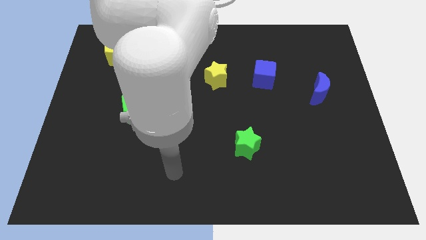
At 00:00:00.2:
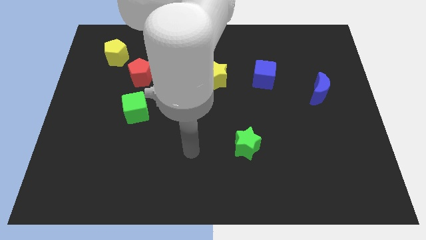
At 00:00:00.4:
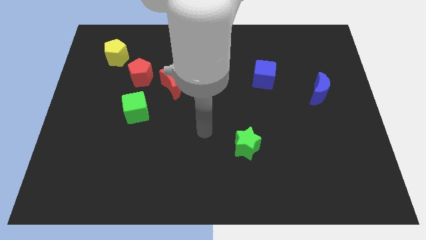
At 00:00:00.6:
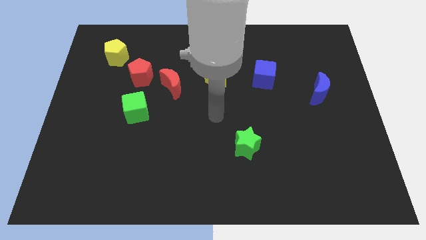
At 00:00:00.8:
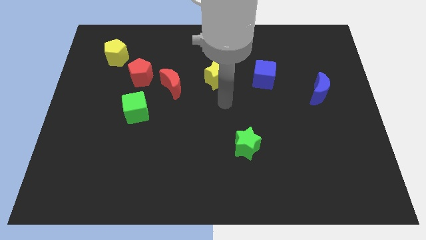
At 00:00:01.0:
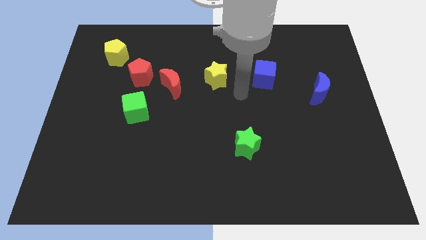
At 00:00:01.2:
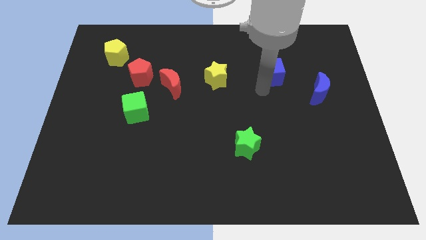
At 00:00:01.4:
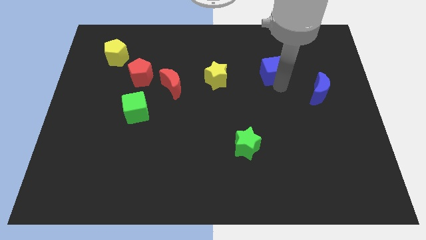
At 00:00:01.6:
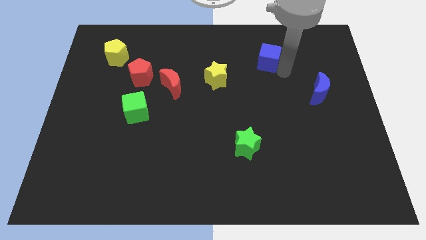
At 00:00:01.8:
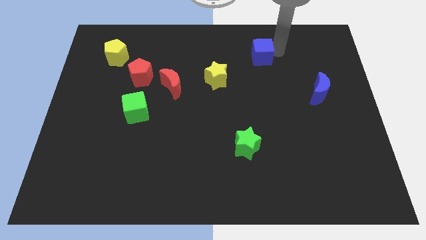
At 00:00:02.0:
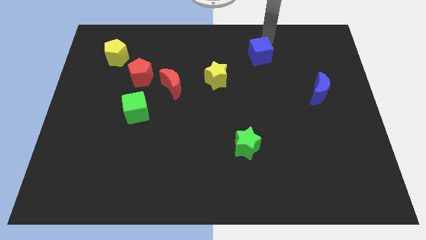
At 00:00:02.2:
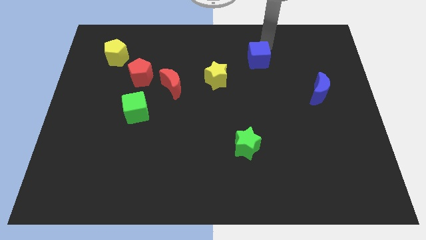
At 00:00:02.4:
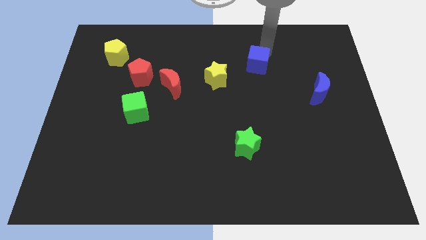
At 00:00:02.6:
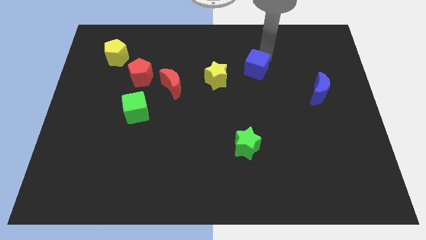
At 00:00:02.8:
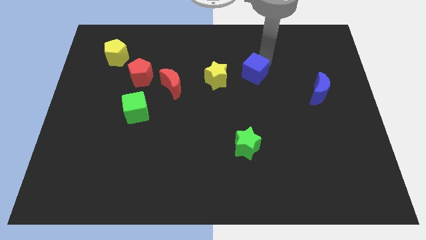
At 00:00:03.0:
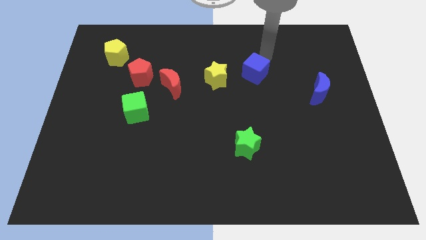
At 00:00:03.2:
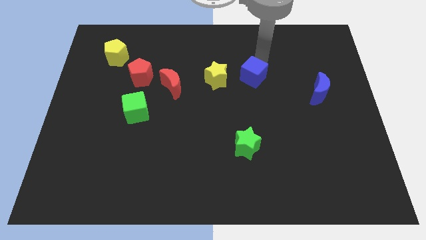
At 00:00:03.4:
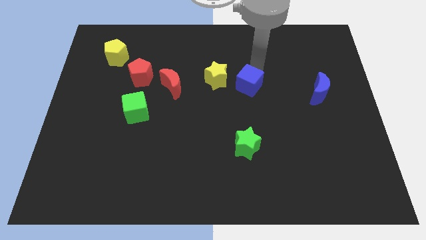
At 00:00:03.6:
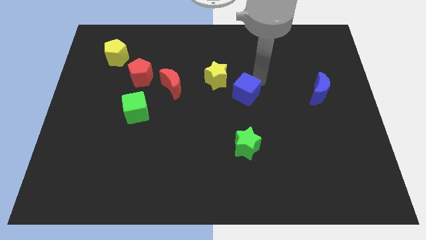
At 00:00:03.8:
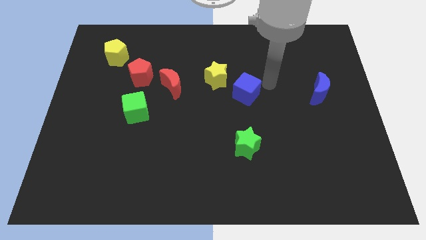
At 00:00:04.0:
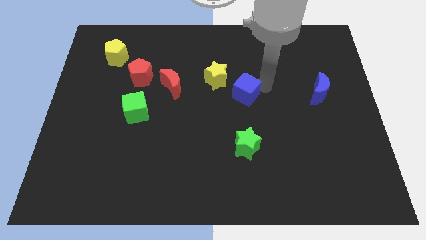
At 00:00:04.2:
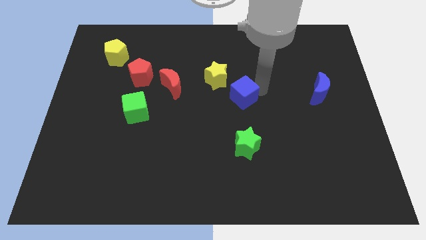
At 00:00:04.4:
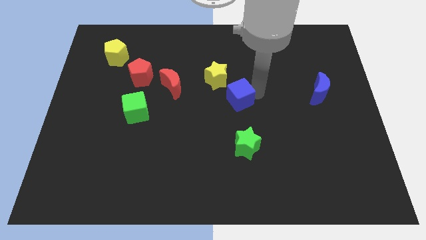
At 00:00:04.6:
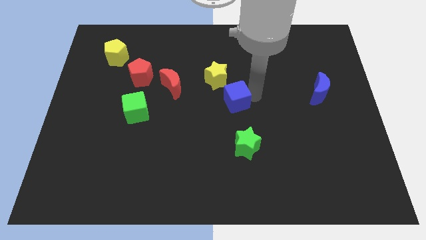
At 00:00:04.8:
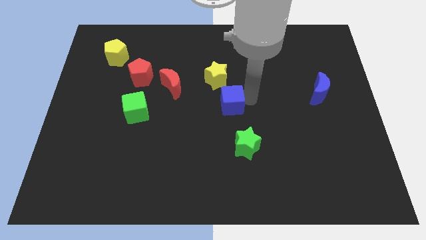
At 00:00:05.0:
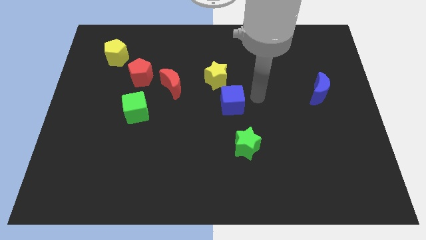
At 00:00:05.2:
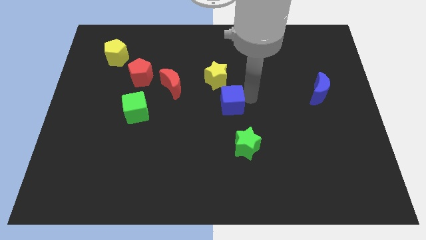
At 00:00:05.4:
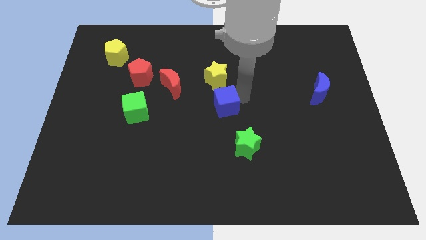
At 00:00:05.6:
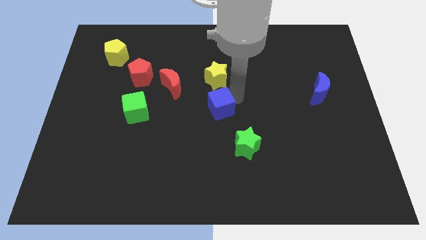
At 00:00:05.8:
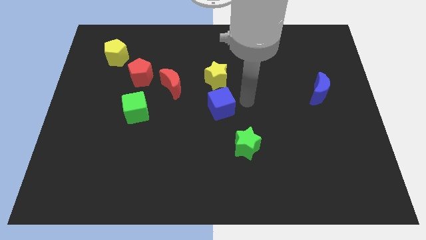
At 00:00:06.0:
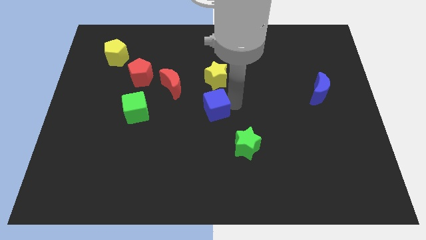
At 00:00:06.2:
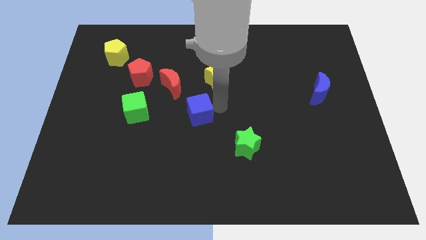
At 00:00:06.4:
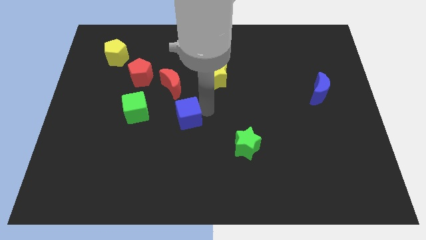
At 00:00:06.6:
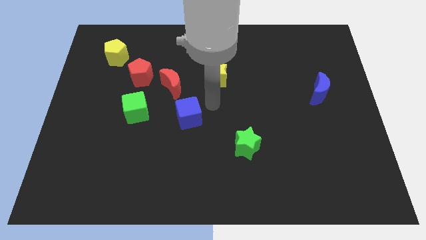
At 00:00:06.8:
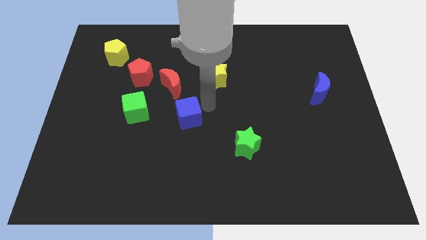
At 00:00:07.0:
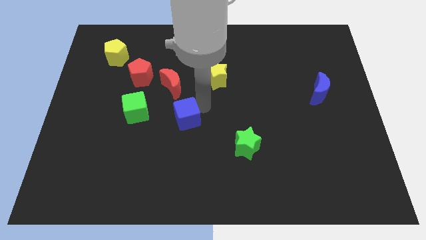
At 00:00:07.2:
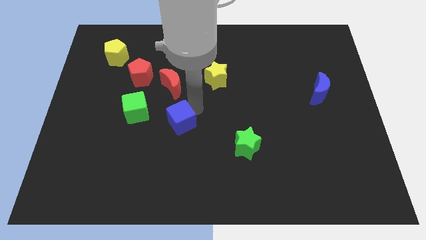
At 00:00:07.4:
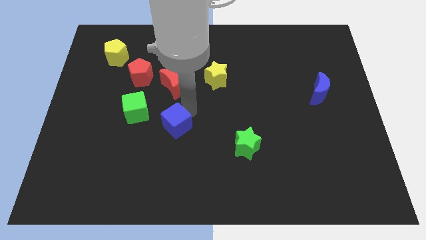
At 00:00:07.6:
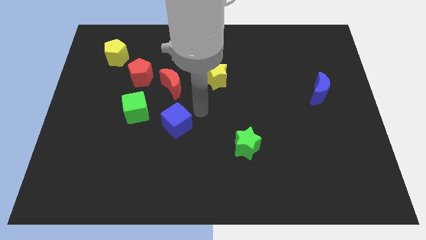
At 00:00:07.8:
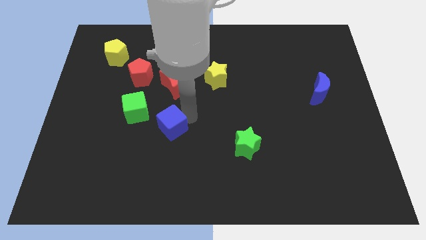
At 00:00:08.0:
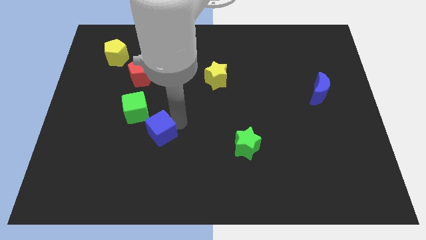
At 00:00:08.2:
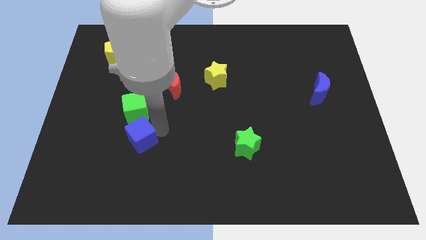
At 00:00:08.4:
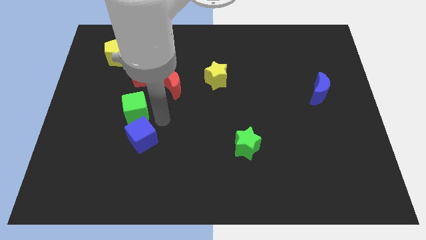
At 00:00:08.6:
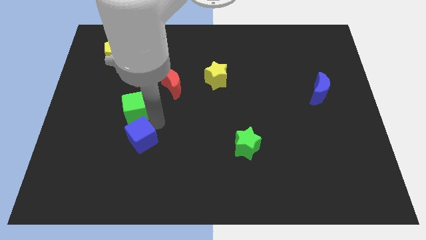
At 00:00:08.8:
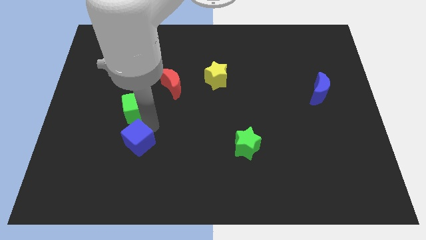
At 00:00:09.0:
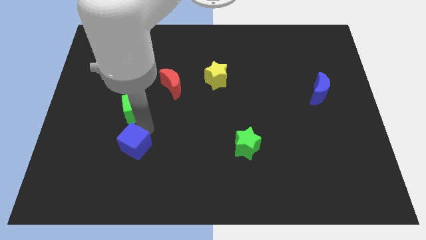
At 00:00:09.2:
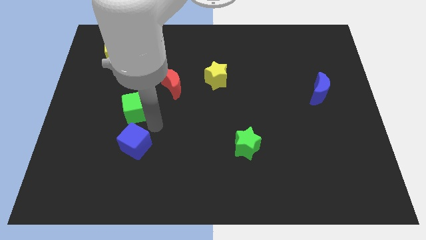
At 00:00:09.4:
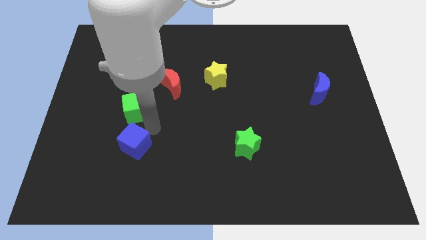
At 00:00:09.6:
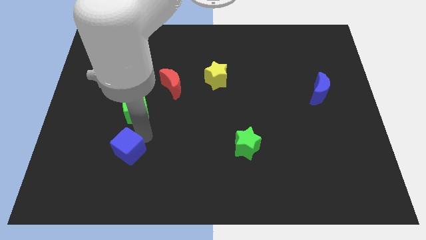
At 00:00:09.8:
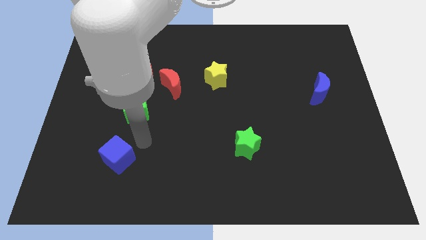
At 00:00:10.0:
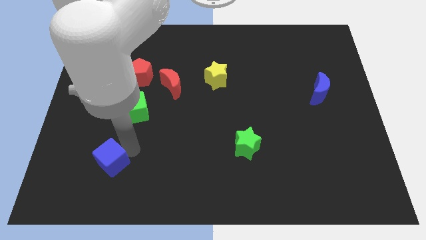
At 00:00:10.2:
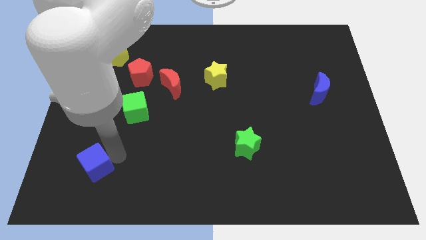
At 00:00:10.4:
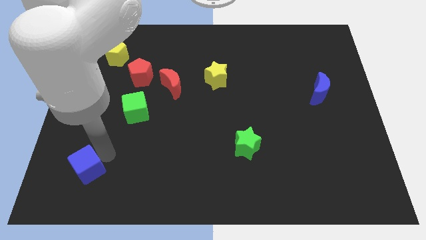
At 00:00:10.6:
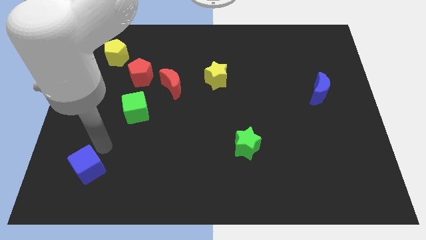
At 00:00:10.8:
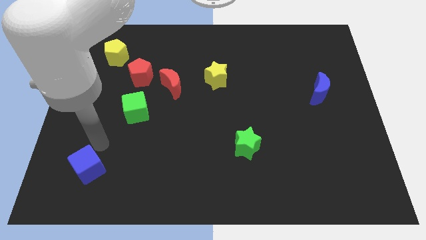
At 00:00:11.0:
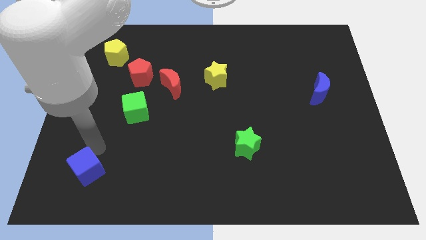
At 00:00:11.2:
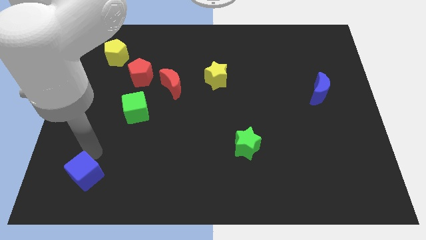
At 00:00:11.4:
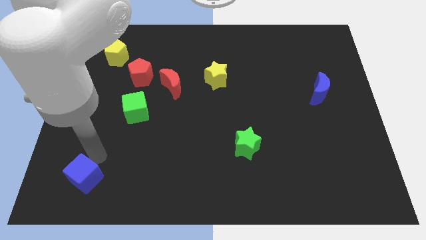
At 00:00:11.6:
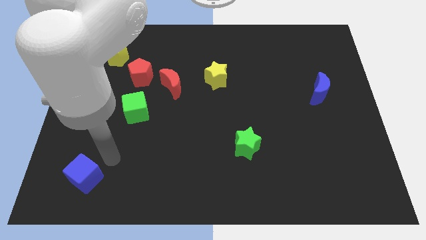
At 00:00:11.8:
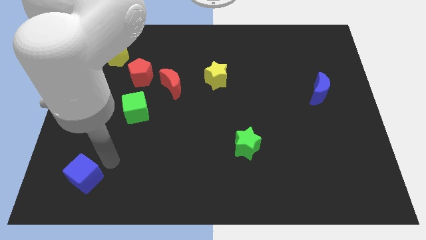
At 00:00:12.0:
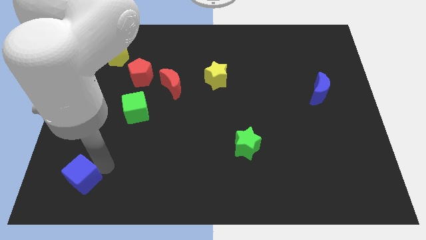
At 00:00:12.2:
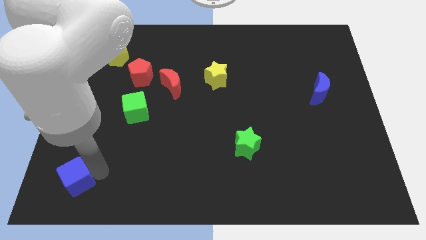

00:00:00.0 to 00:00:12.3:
move the blue cube to the lower left corner

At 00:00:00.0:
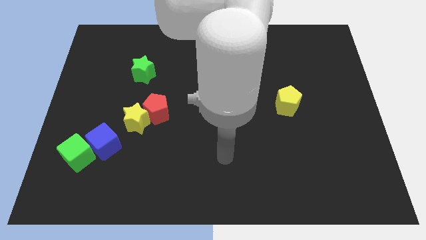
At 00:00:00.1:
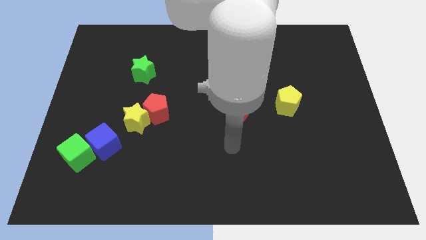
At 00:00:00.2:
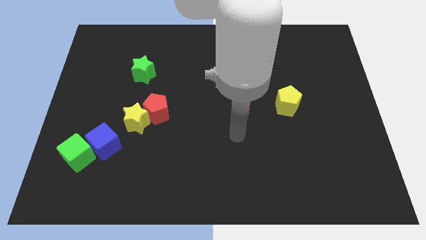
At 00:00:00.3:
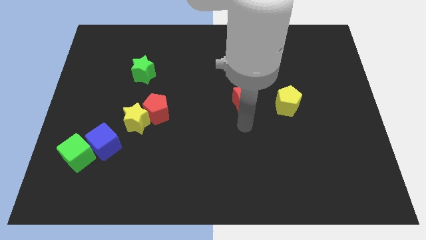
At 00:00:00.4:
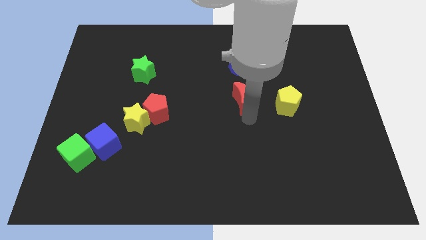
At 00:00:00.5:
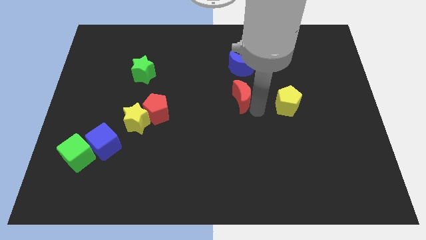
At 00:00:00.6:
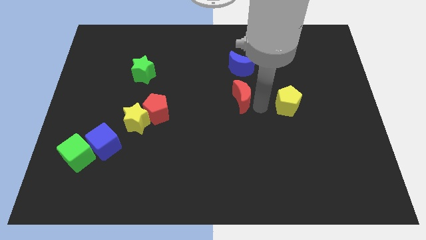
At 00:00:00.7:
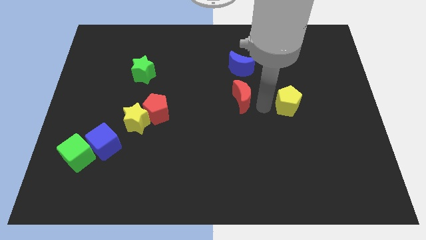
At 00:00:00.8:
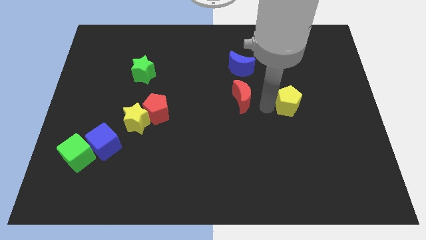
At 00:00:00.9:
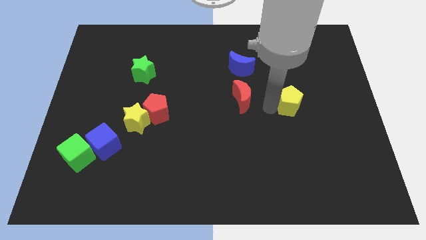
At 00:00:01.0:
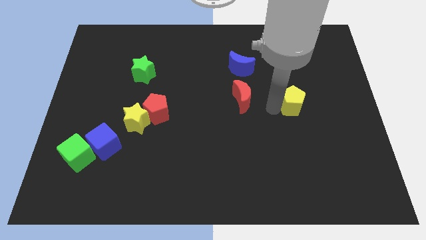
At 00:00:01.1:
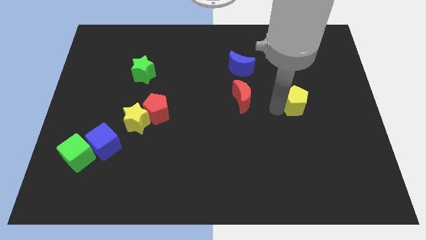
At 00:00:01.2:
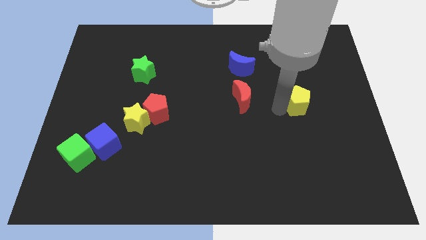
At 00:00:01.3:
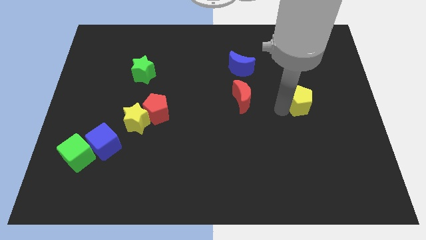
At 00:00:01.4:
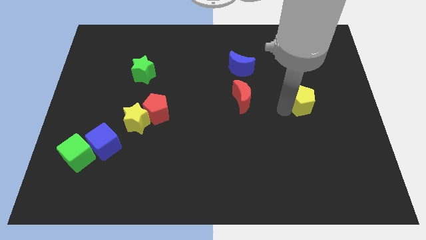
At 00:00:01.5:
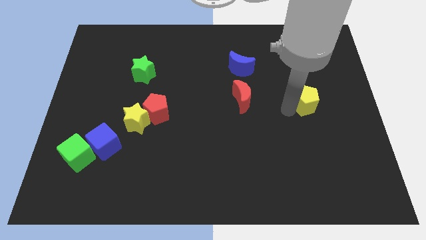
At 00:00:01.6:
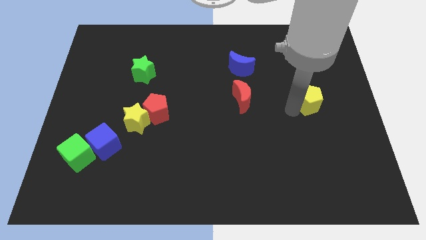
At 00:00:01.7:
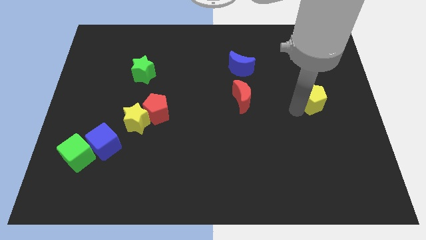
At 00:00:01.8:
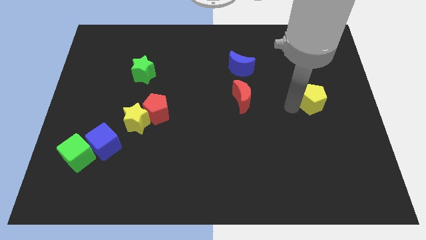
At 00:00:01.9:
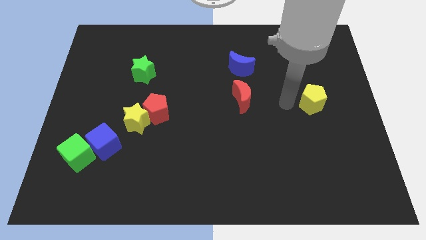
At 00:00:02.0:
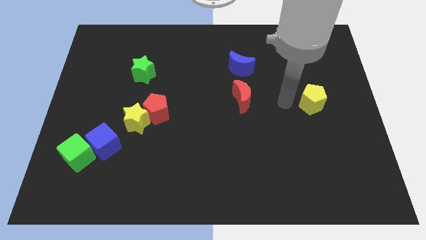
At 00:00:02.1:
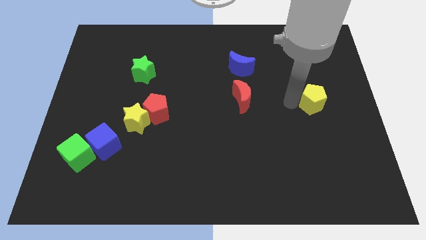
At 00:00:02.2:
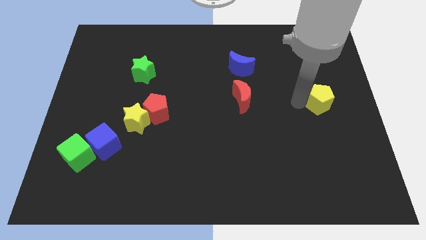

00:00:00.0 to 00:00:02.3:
put the yellow pentagon to the right side
